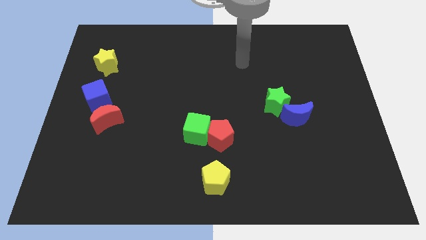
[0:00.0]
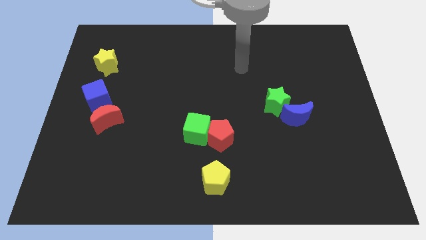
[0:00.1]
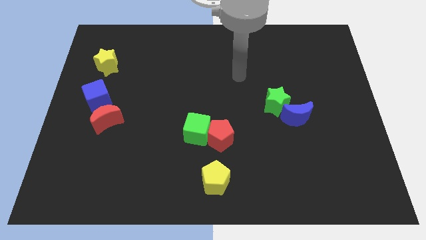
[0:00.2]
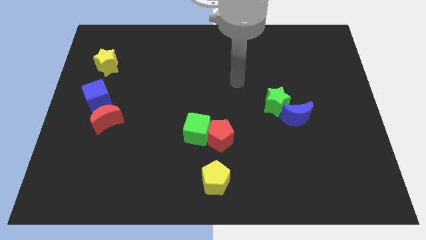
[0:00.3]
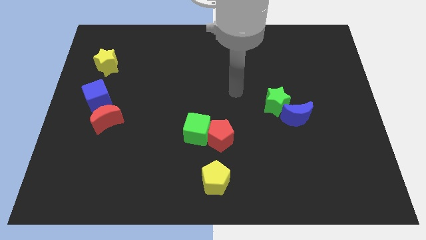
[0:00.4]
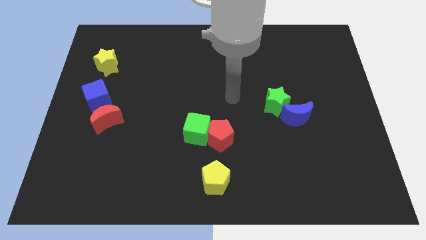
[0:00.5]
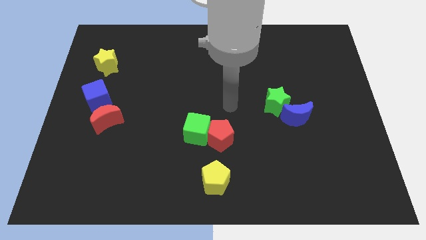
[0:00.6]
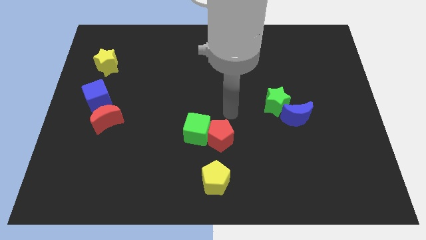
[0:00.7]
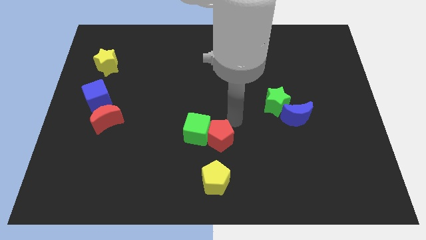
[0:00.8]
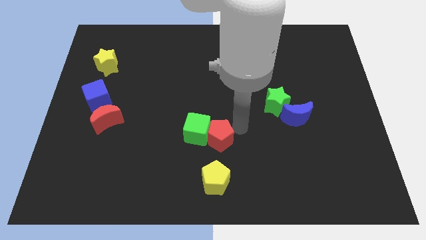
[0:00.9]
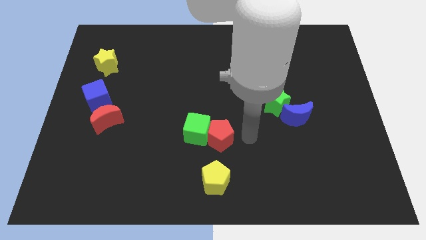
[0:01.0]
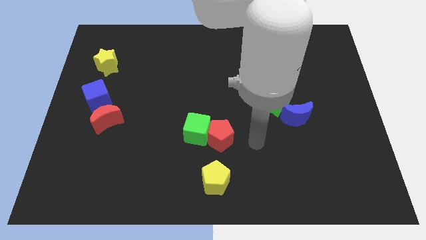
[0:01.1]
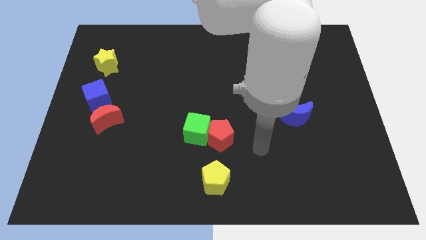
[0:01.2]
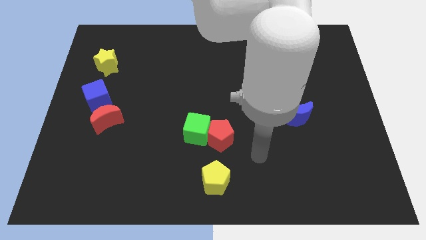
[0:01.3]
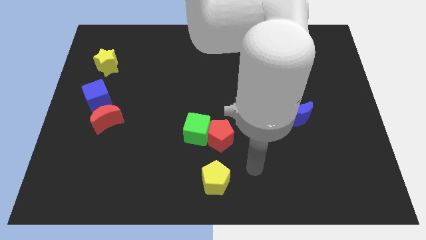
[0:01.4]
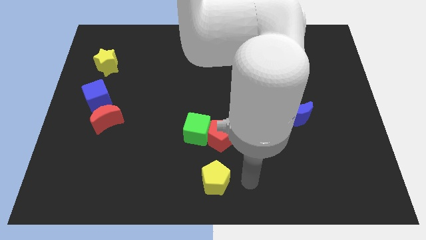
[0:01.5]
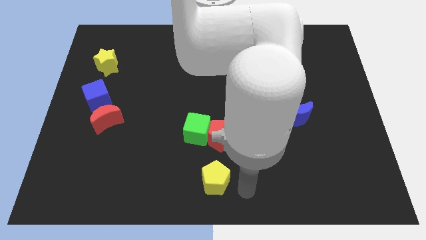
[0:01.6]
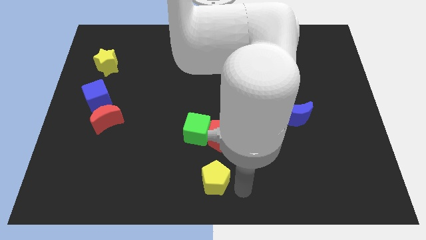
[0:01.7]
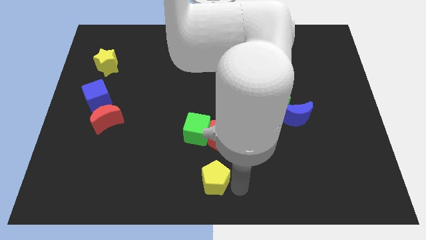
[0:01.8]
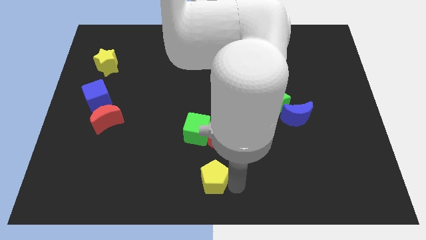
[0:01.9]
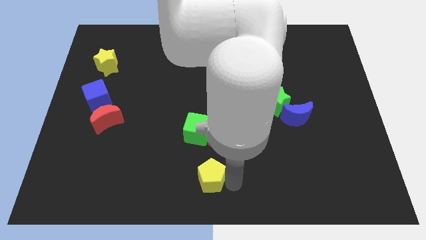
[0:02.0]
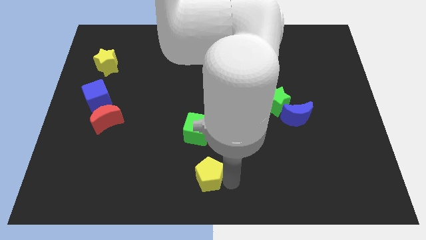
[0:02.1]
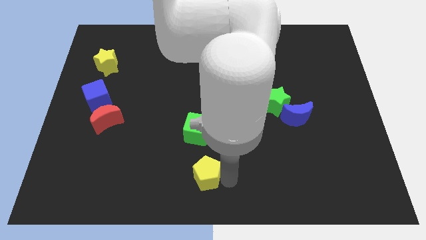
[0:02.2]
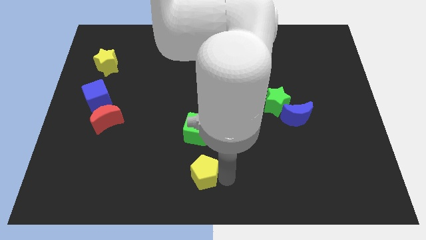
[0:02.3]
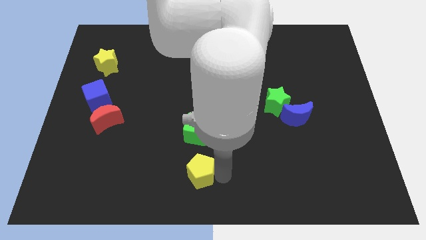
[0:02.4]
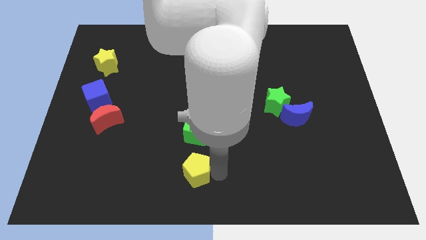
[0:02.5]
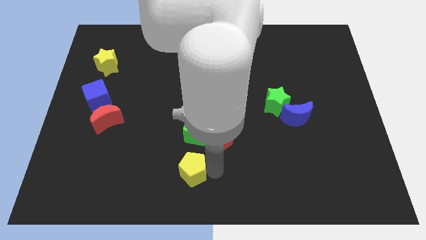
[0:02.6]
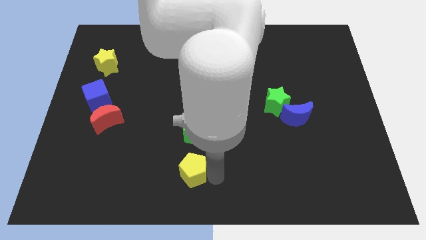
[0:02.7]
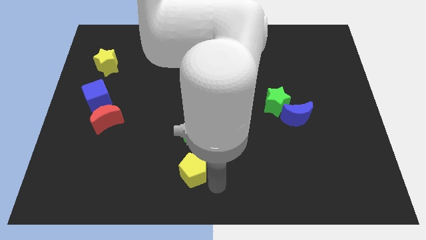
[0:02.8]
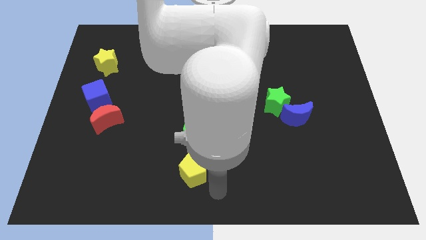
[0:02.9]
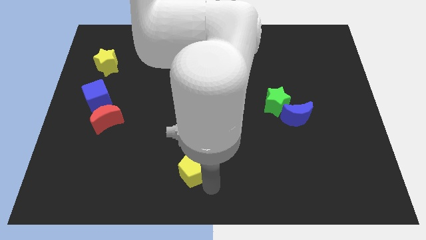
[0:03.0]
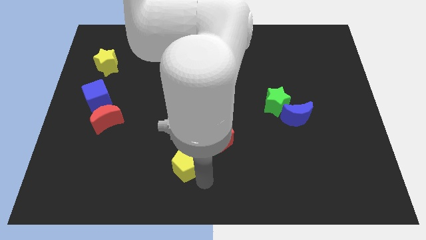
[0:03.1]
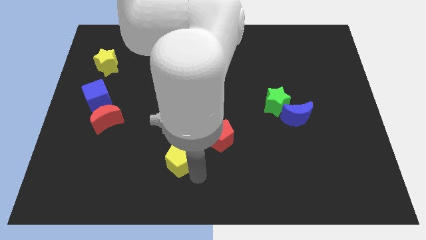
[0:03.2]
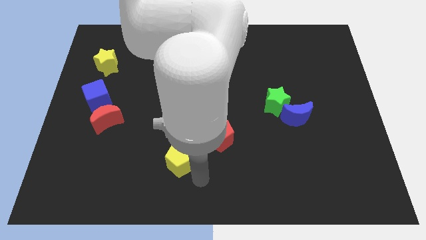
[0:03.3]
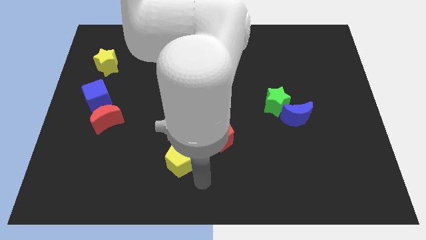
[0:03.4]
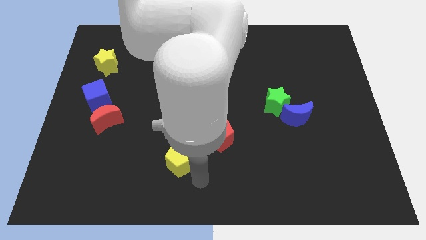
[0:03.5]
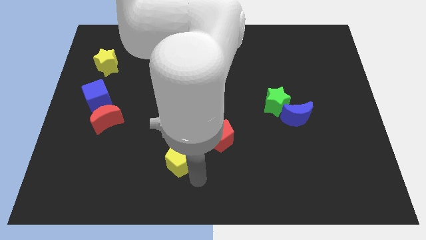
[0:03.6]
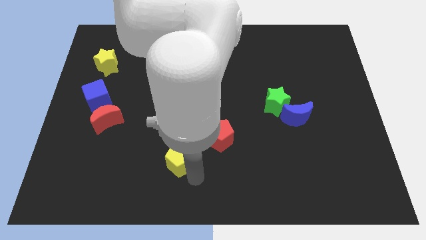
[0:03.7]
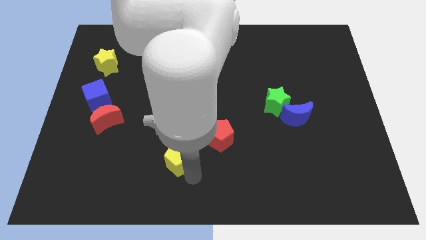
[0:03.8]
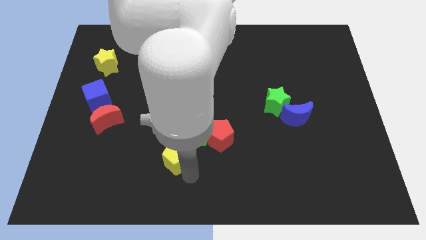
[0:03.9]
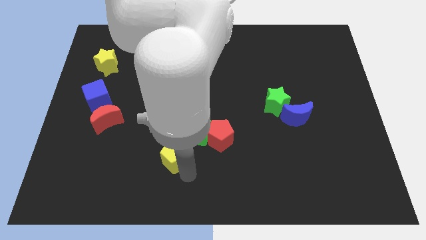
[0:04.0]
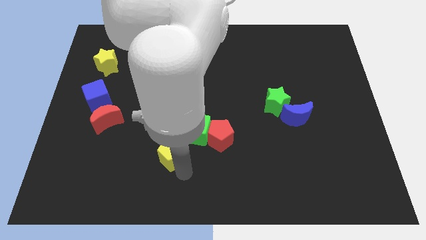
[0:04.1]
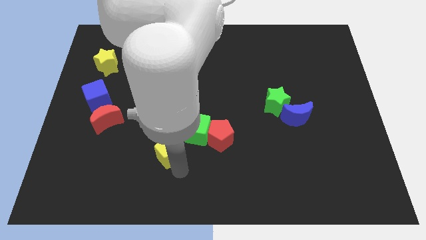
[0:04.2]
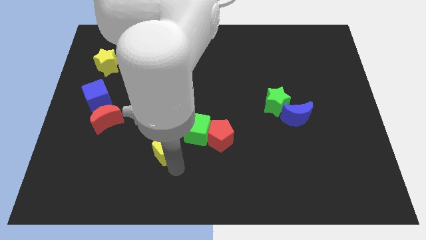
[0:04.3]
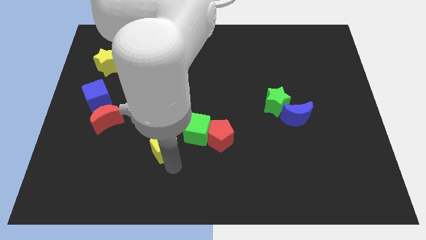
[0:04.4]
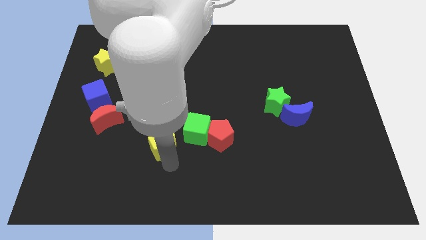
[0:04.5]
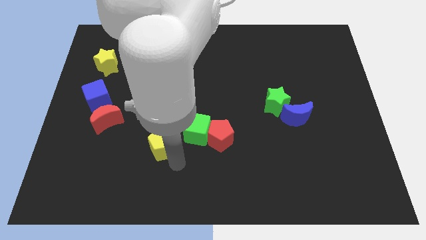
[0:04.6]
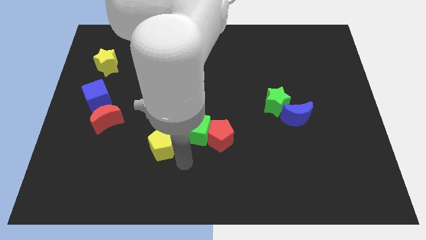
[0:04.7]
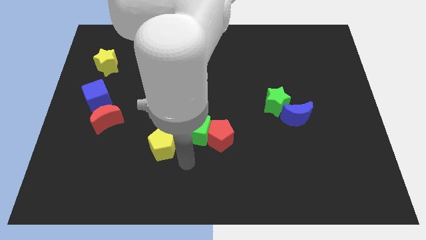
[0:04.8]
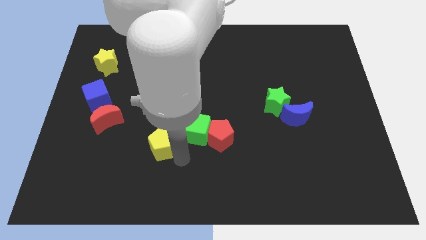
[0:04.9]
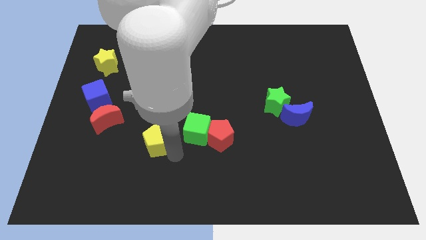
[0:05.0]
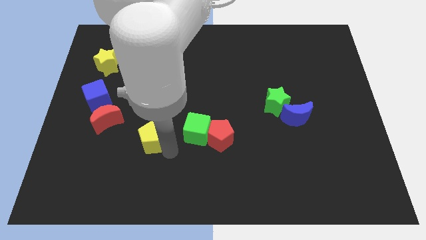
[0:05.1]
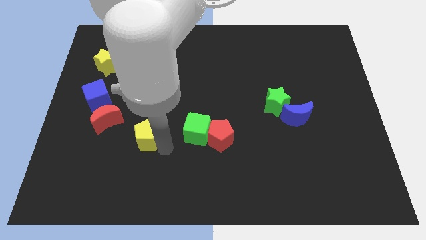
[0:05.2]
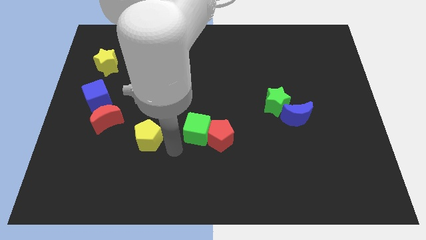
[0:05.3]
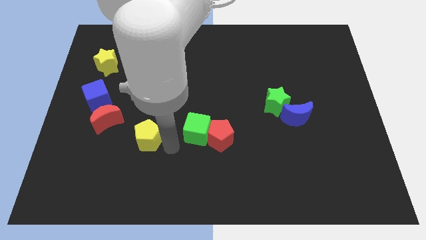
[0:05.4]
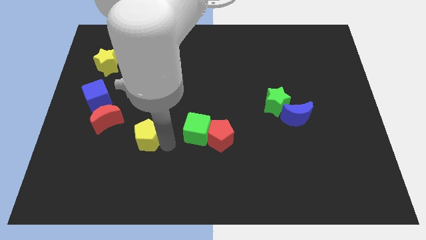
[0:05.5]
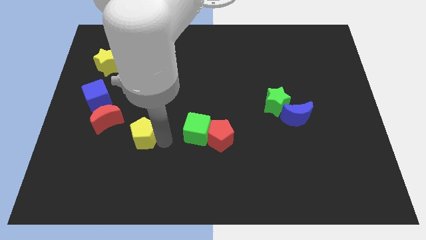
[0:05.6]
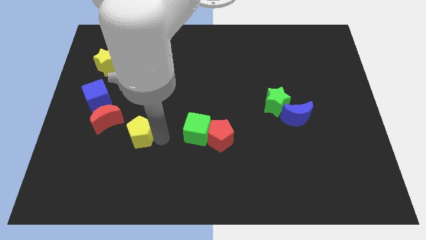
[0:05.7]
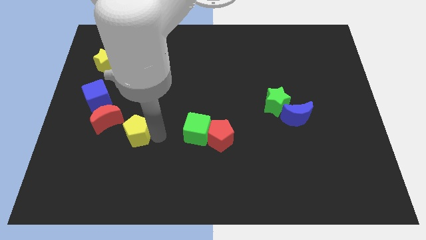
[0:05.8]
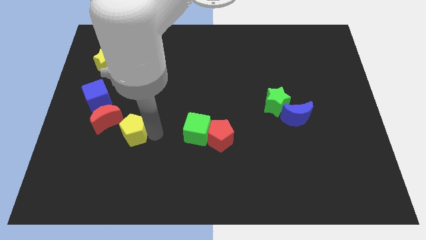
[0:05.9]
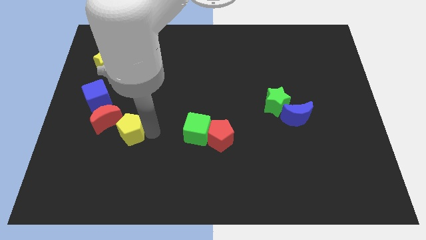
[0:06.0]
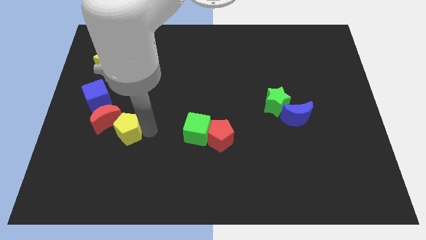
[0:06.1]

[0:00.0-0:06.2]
put the yellow pentagon next to the red moon
